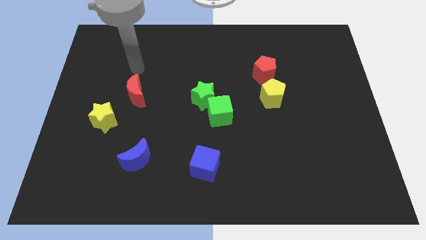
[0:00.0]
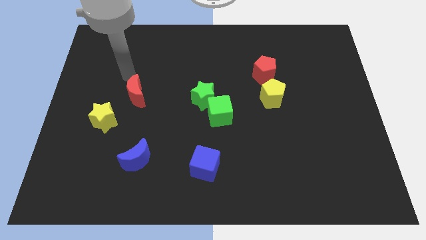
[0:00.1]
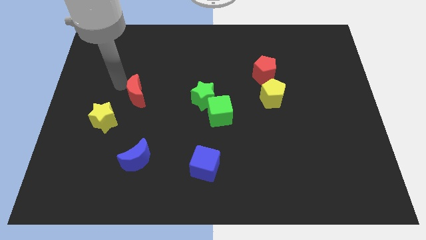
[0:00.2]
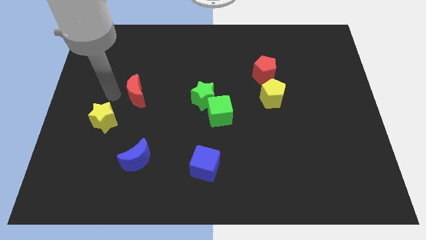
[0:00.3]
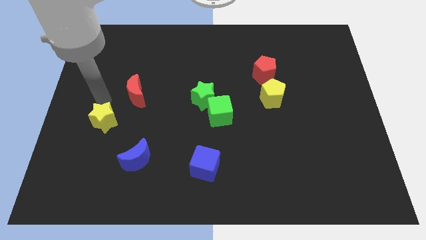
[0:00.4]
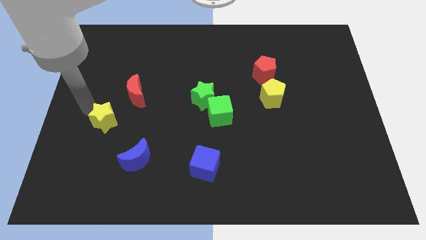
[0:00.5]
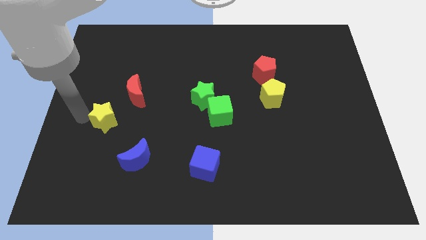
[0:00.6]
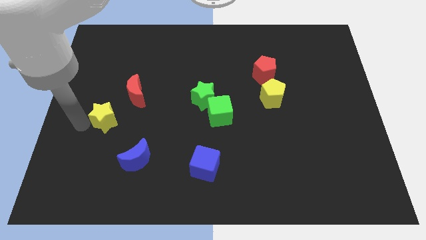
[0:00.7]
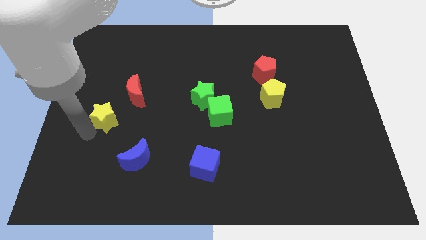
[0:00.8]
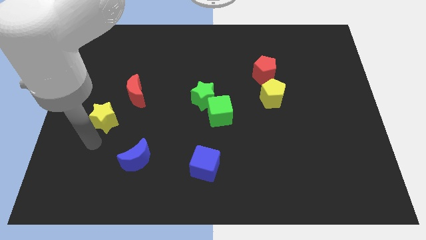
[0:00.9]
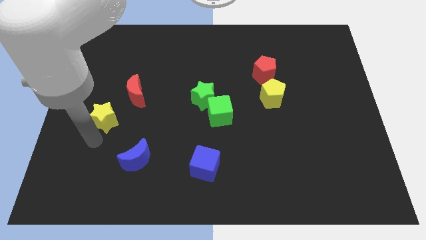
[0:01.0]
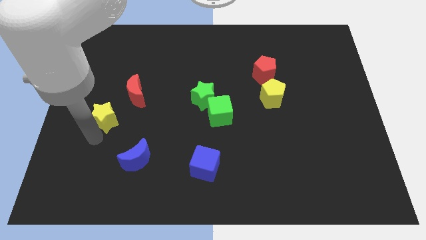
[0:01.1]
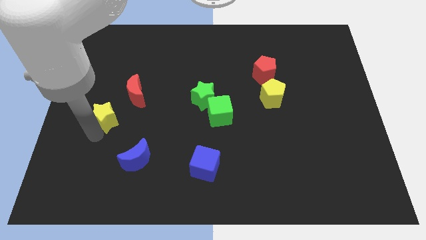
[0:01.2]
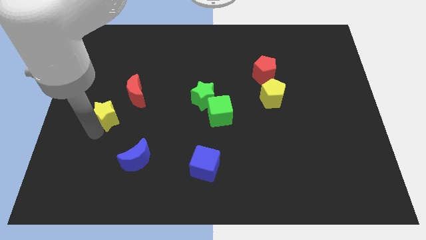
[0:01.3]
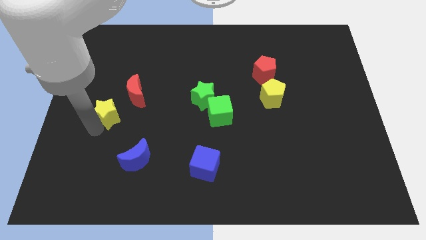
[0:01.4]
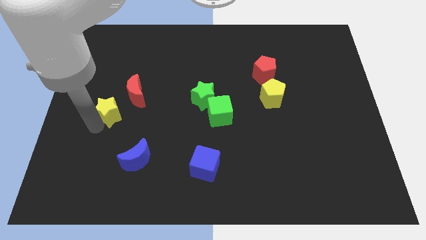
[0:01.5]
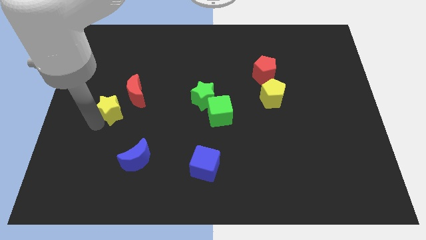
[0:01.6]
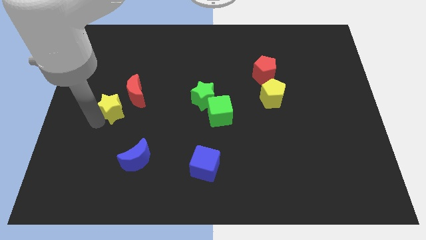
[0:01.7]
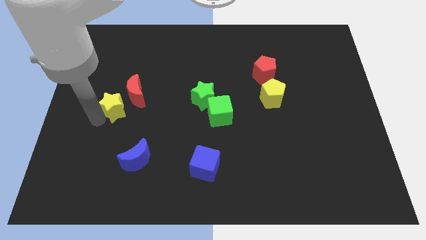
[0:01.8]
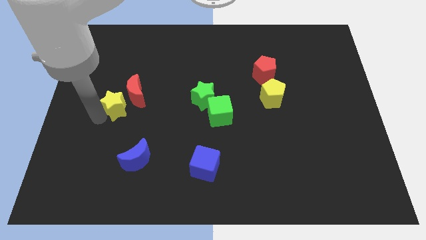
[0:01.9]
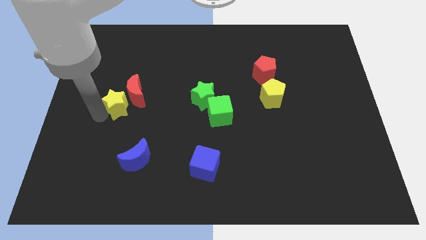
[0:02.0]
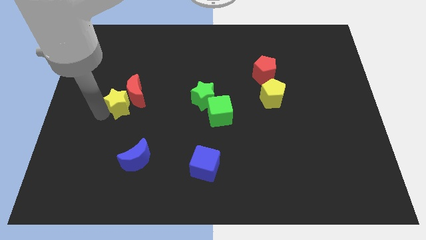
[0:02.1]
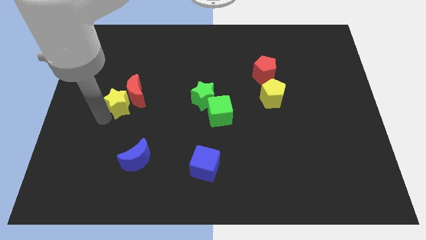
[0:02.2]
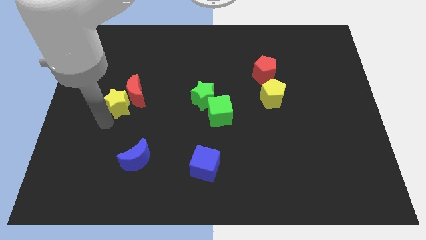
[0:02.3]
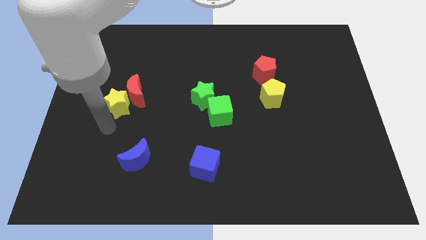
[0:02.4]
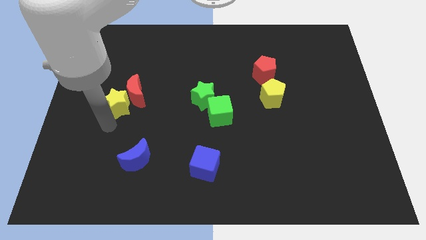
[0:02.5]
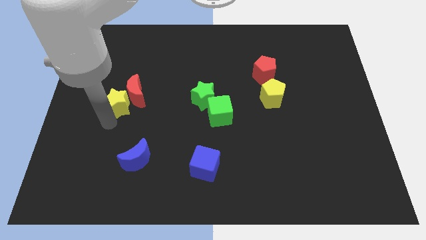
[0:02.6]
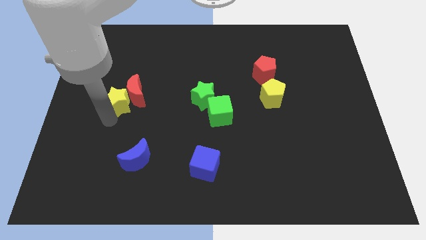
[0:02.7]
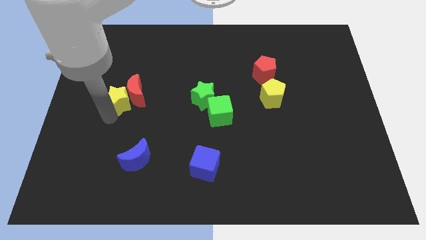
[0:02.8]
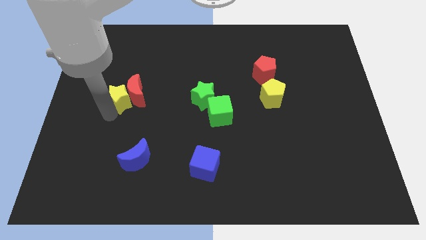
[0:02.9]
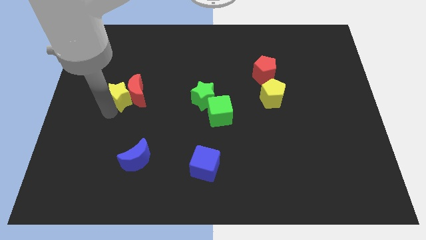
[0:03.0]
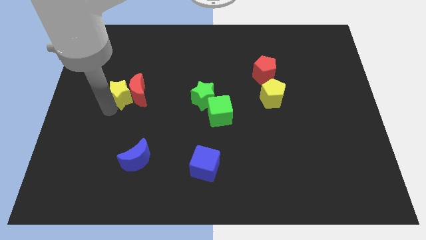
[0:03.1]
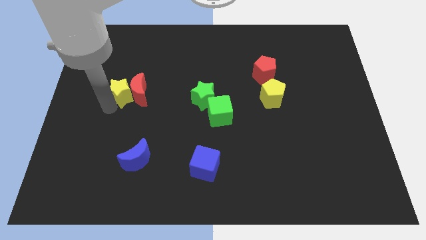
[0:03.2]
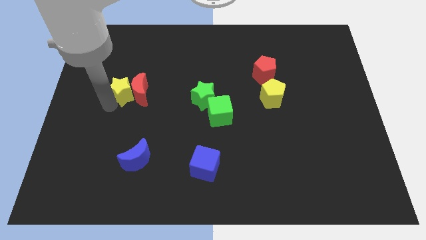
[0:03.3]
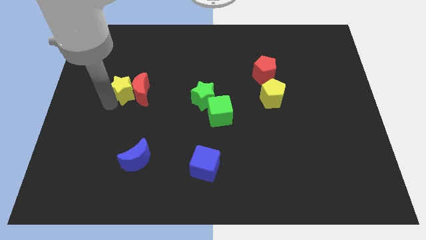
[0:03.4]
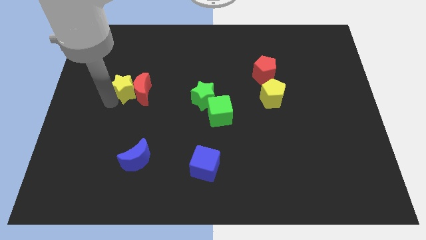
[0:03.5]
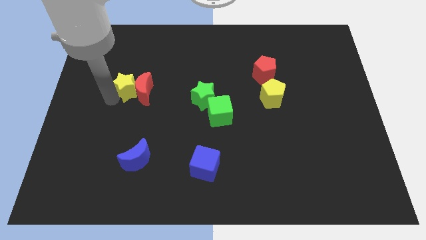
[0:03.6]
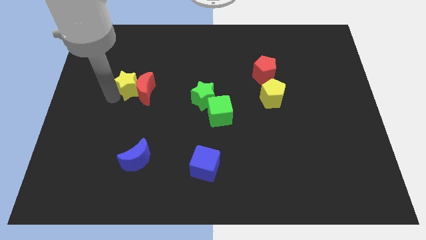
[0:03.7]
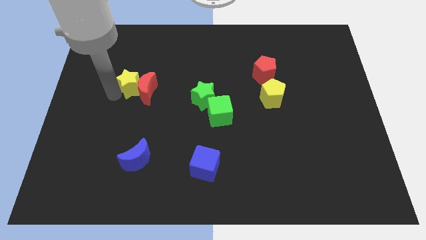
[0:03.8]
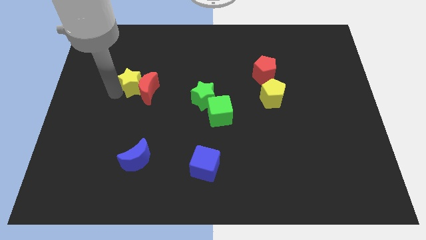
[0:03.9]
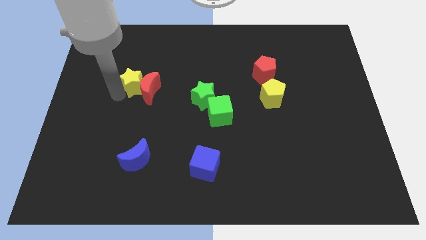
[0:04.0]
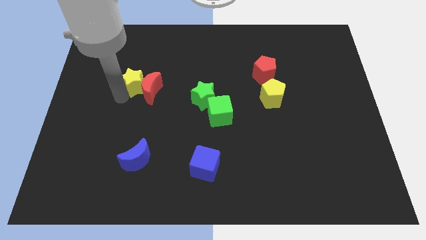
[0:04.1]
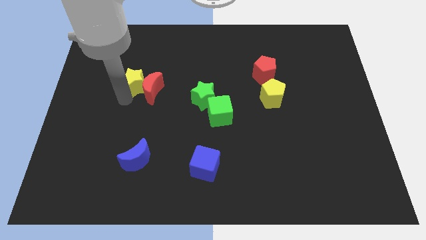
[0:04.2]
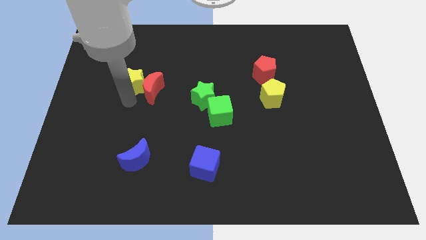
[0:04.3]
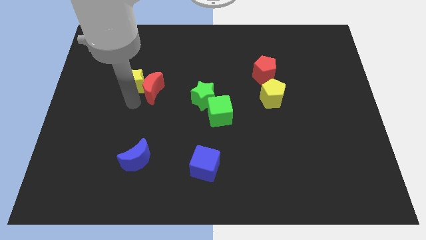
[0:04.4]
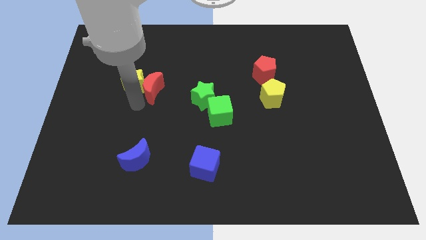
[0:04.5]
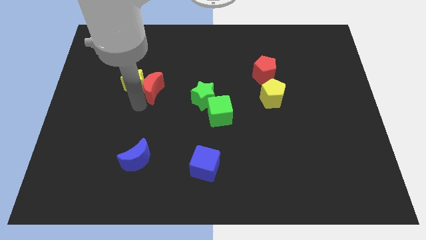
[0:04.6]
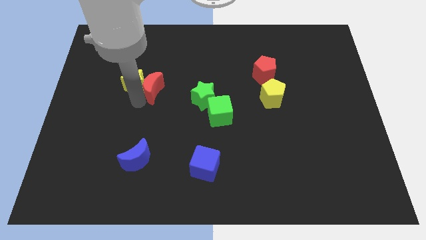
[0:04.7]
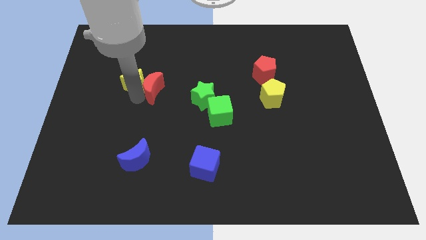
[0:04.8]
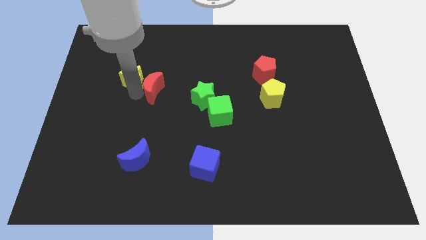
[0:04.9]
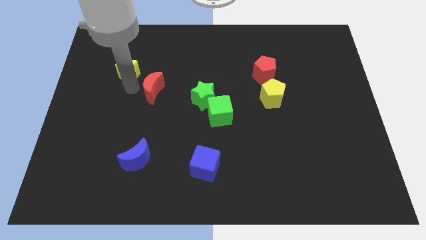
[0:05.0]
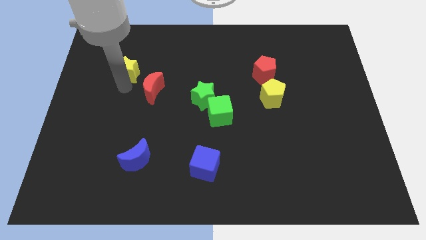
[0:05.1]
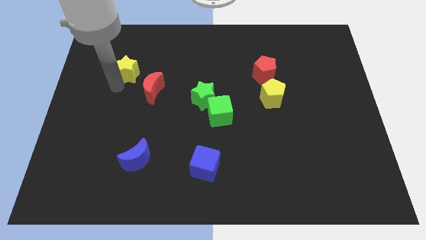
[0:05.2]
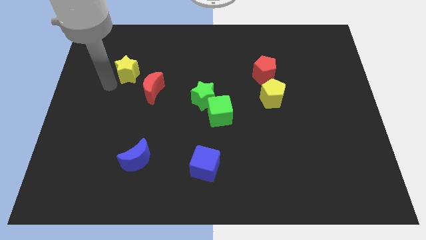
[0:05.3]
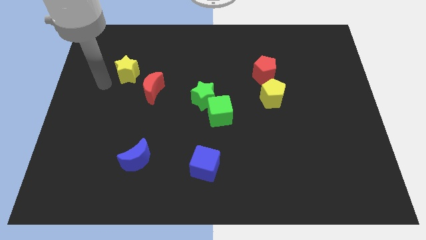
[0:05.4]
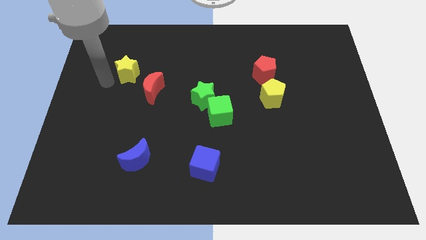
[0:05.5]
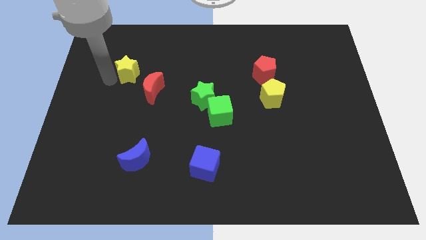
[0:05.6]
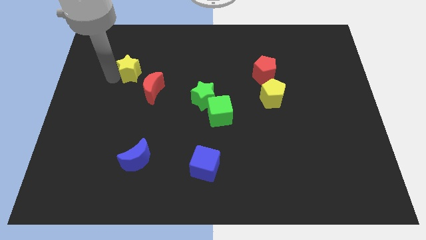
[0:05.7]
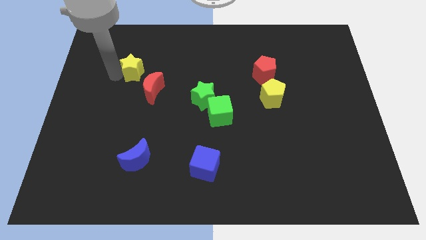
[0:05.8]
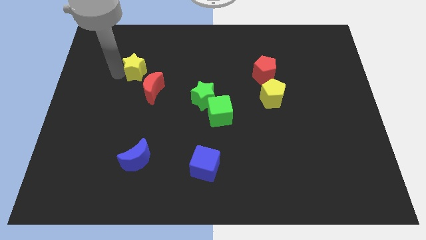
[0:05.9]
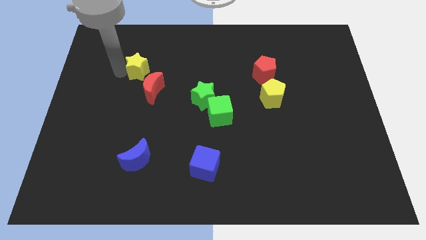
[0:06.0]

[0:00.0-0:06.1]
slide the yellow star to the top of the red moon

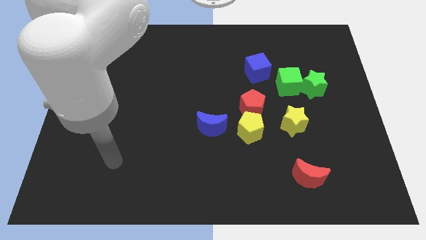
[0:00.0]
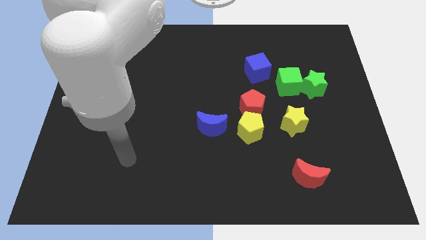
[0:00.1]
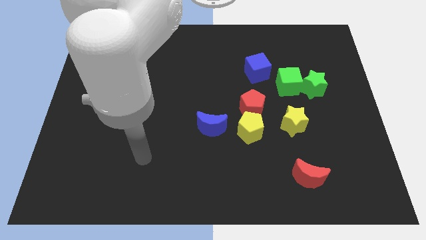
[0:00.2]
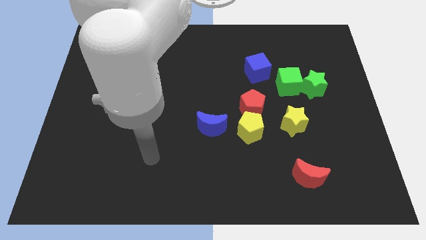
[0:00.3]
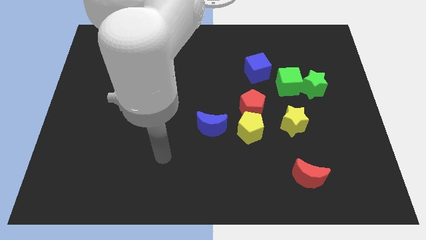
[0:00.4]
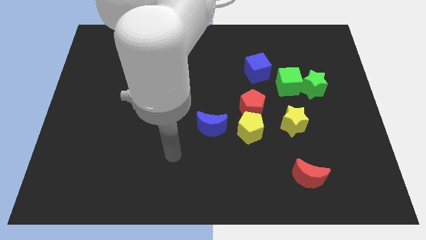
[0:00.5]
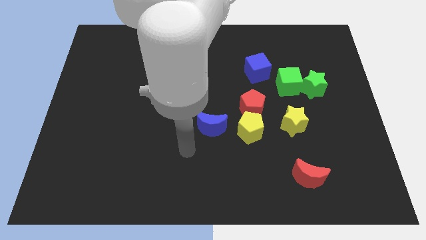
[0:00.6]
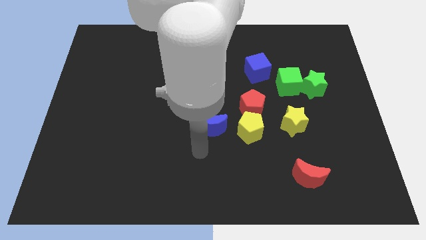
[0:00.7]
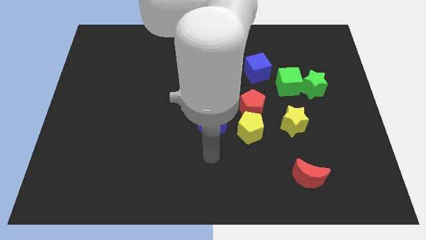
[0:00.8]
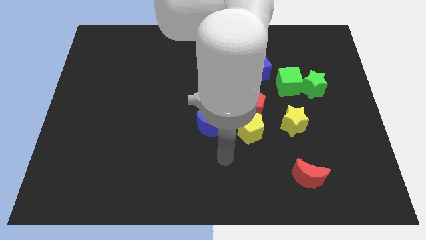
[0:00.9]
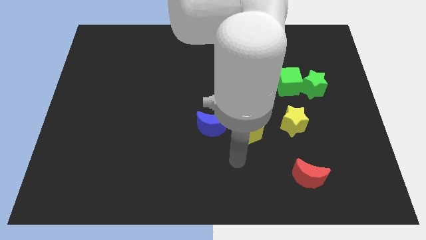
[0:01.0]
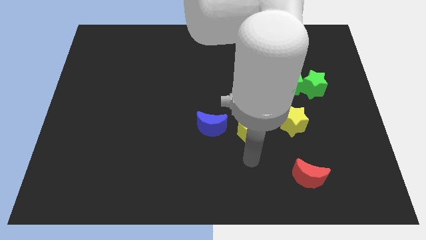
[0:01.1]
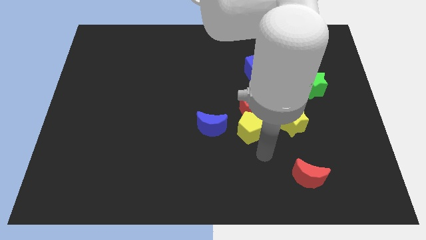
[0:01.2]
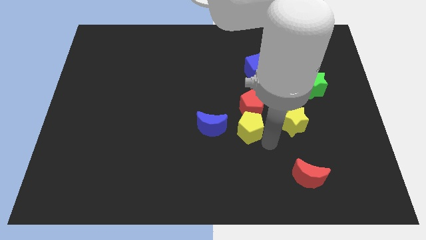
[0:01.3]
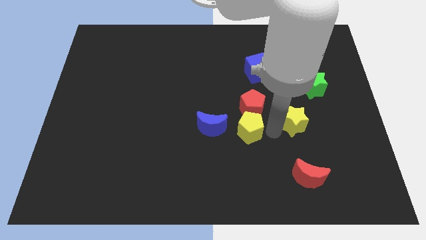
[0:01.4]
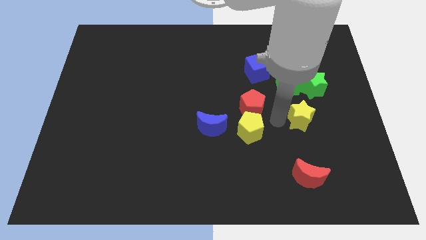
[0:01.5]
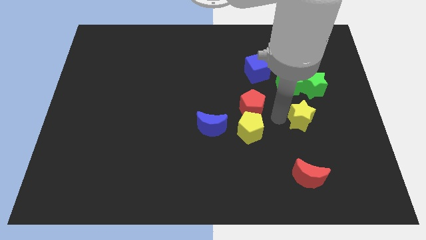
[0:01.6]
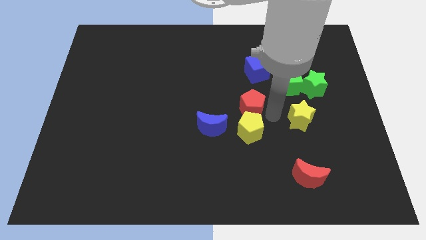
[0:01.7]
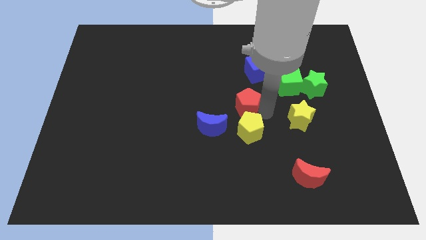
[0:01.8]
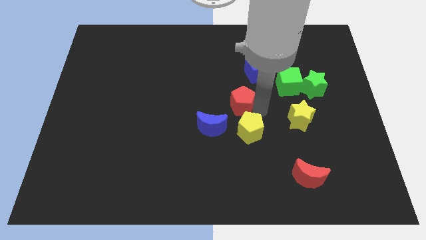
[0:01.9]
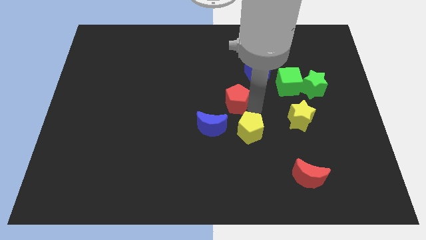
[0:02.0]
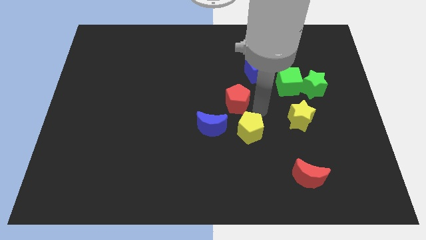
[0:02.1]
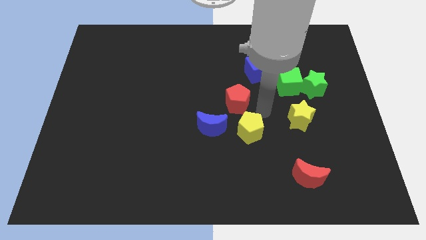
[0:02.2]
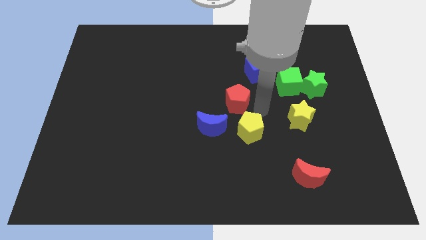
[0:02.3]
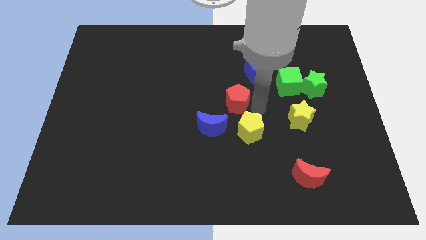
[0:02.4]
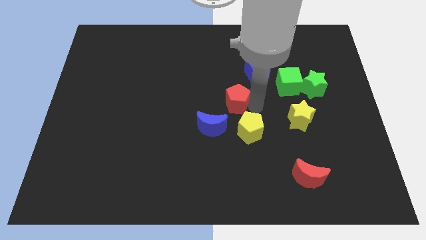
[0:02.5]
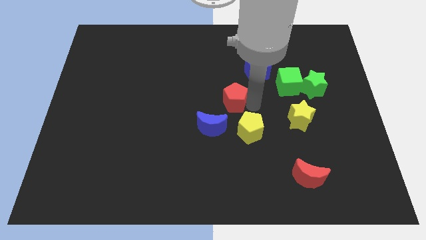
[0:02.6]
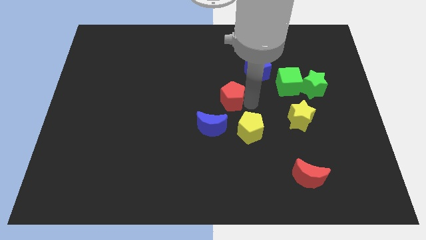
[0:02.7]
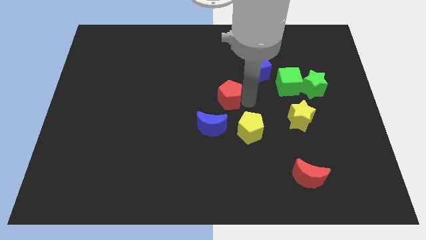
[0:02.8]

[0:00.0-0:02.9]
slide the red pentagon to the top of the blue moon
